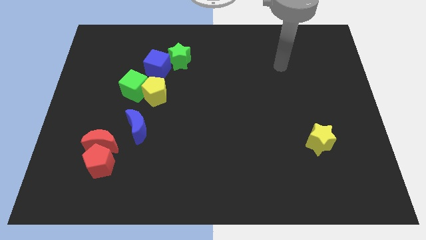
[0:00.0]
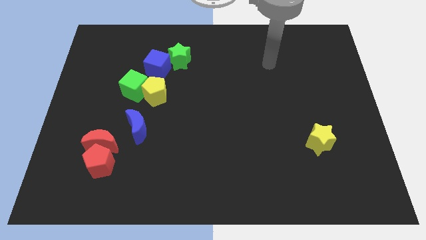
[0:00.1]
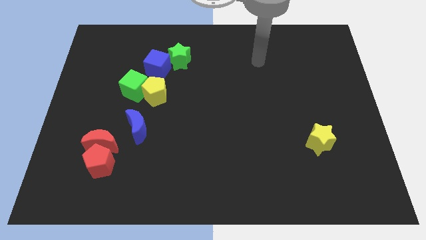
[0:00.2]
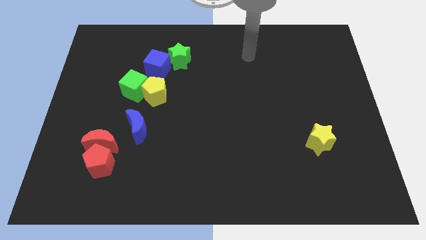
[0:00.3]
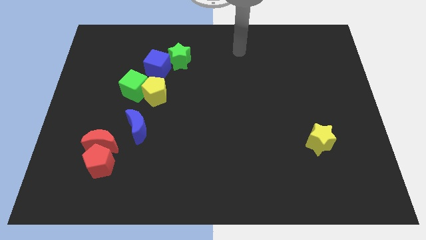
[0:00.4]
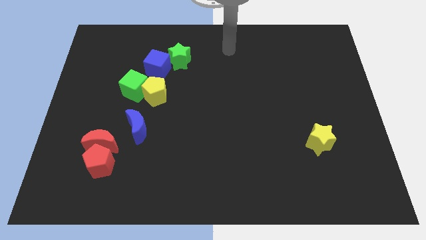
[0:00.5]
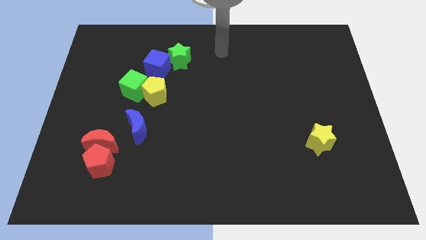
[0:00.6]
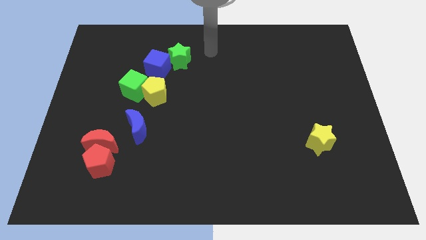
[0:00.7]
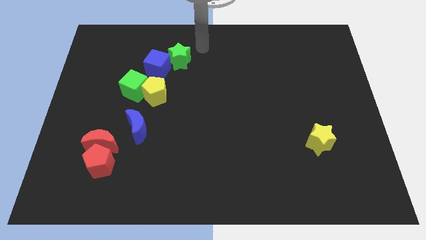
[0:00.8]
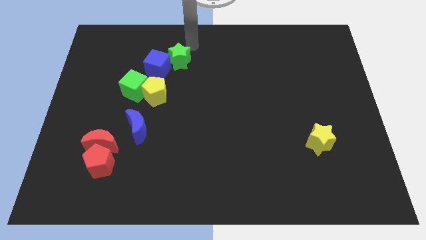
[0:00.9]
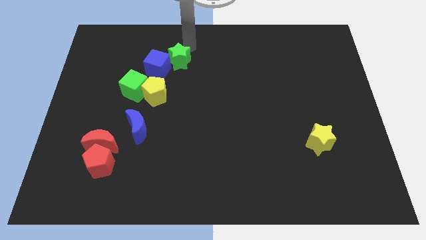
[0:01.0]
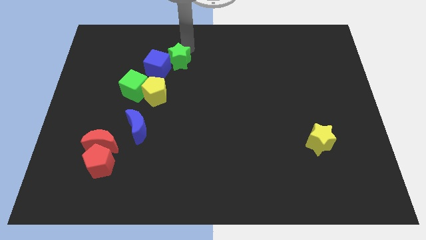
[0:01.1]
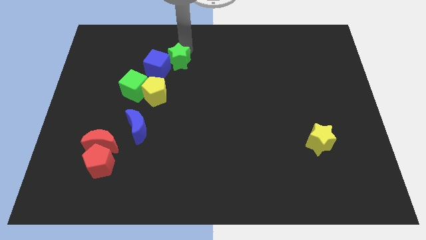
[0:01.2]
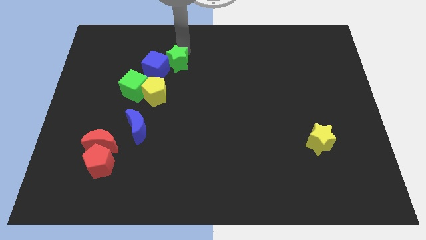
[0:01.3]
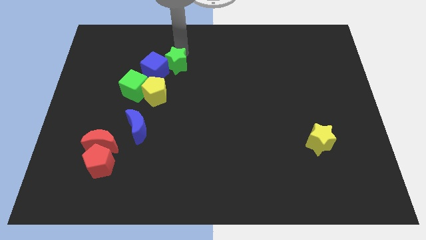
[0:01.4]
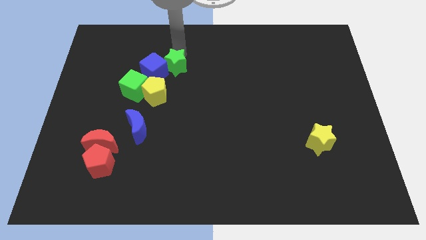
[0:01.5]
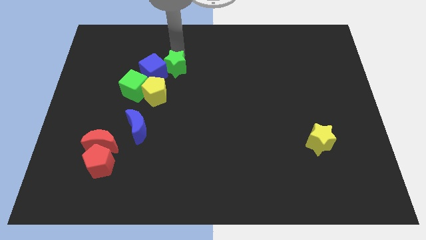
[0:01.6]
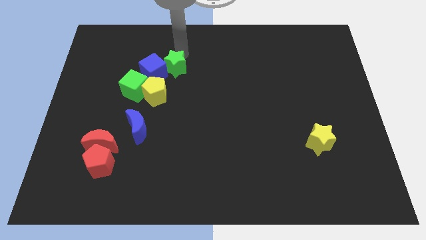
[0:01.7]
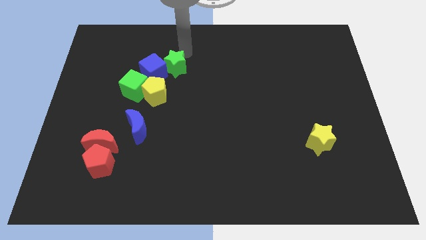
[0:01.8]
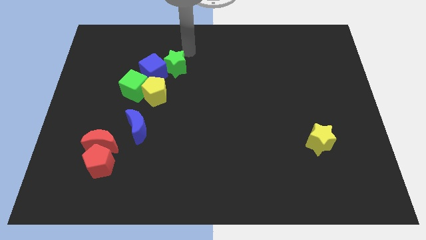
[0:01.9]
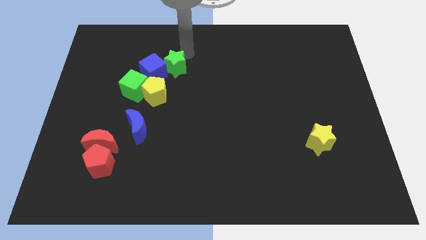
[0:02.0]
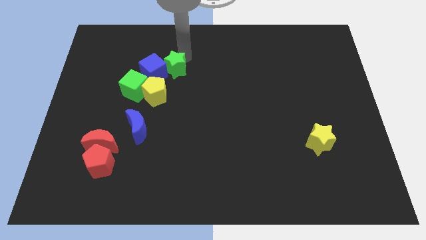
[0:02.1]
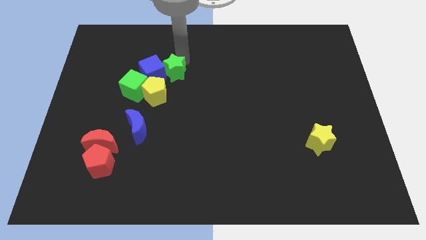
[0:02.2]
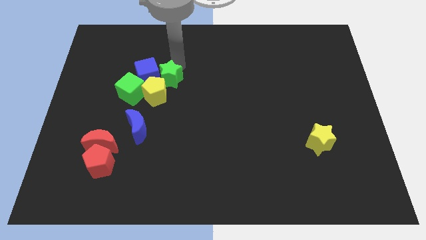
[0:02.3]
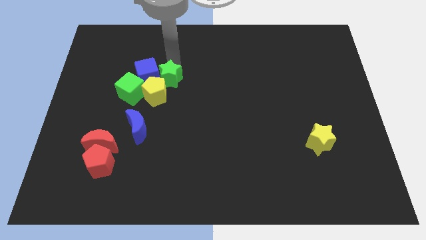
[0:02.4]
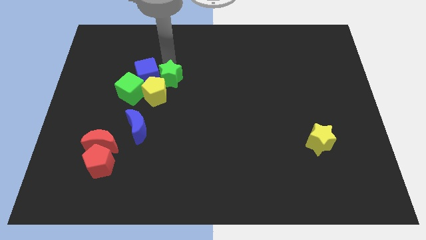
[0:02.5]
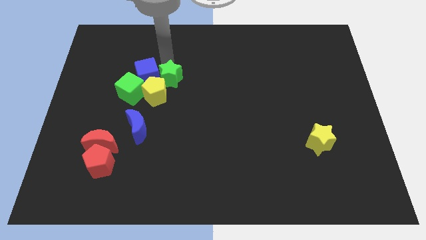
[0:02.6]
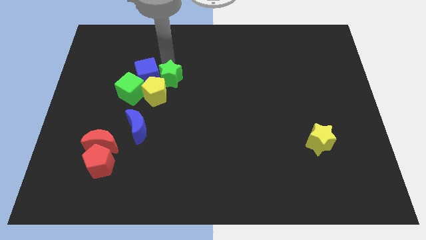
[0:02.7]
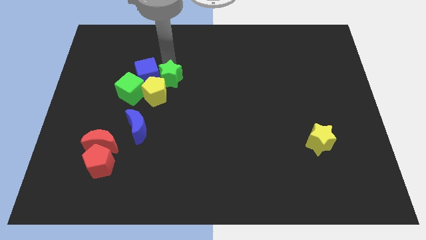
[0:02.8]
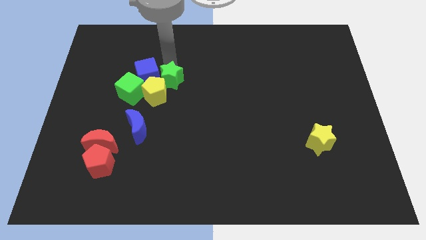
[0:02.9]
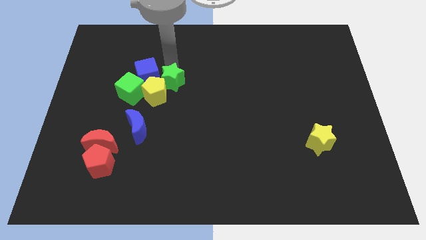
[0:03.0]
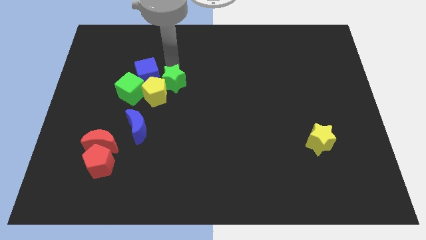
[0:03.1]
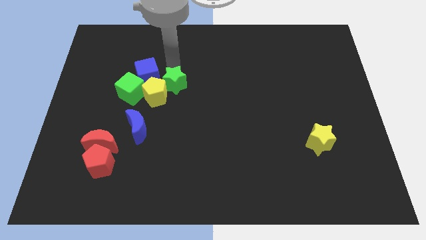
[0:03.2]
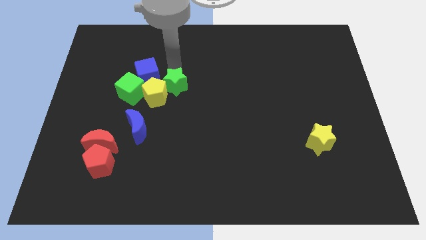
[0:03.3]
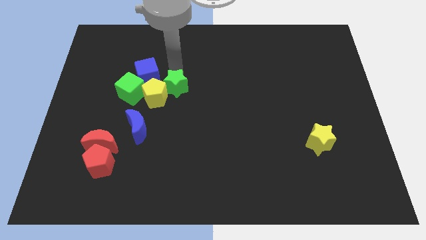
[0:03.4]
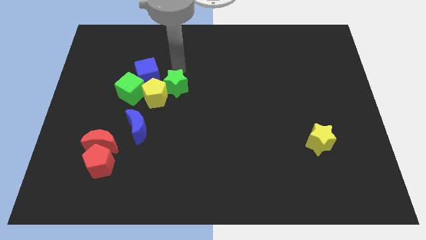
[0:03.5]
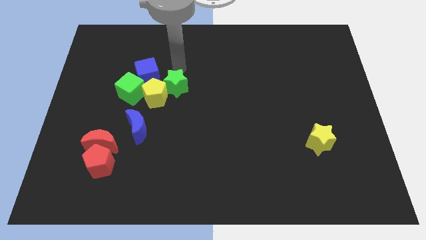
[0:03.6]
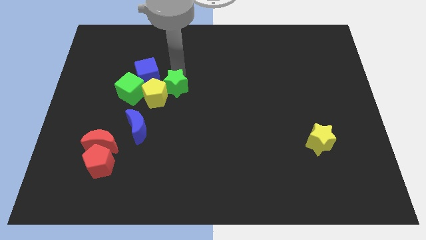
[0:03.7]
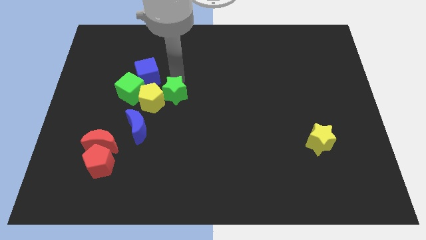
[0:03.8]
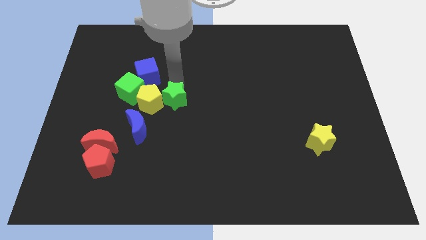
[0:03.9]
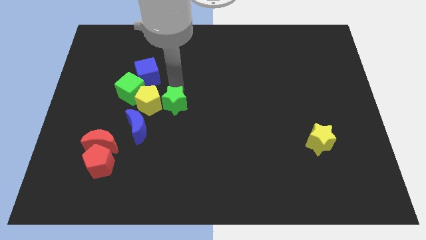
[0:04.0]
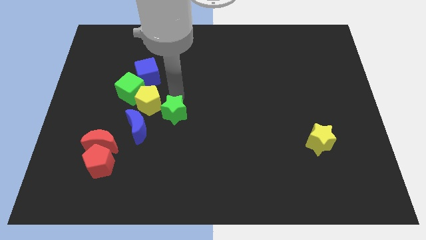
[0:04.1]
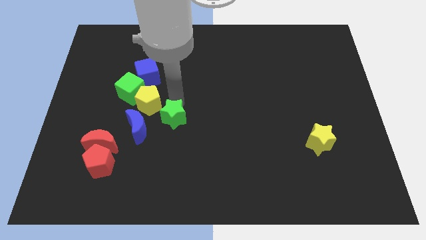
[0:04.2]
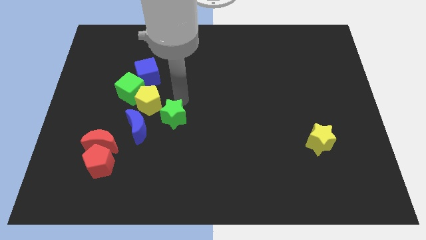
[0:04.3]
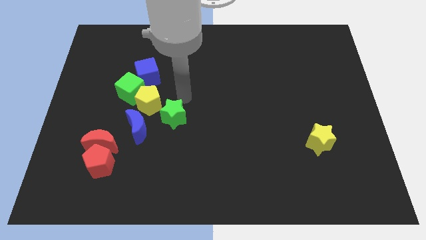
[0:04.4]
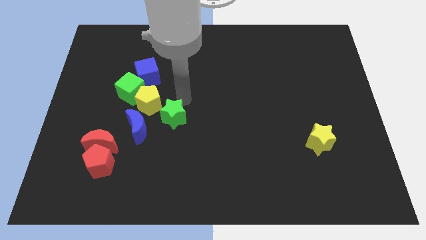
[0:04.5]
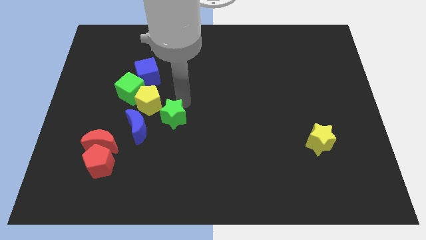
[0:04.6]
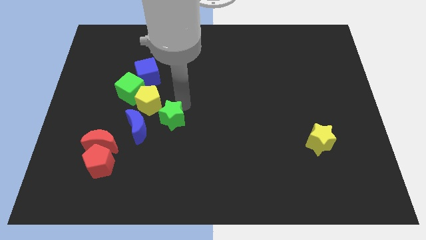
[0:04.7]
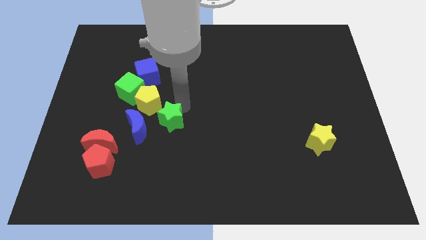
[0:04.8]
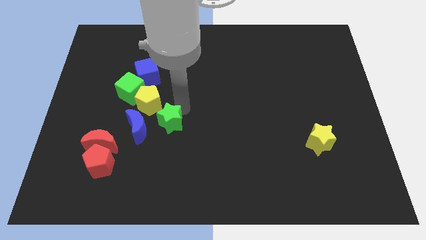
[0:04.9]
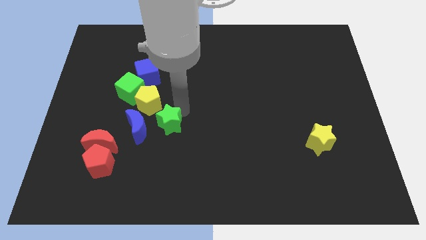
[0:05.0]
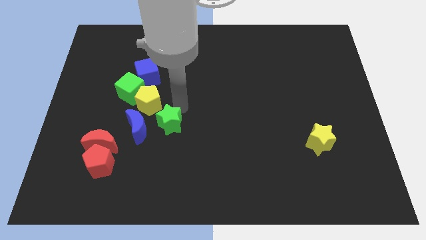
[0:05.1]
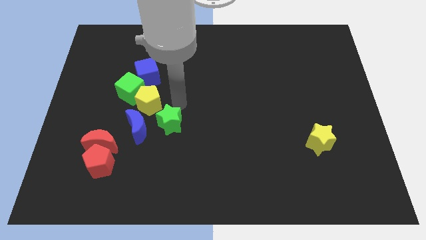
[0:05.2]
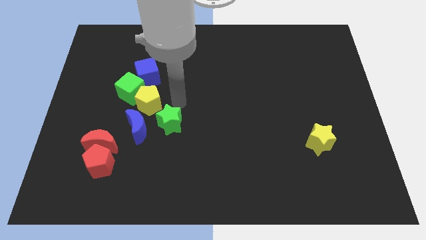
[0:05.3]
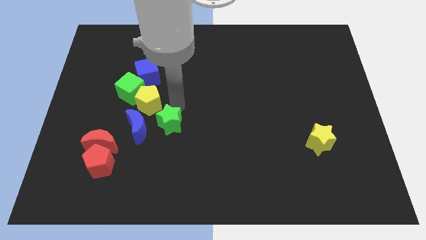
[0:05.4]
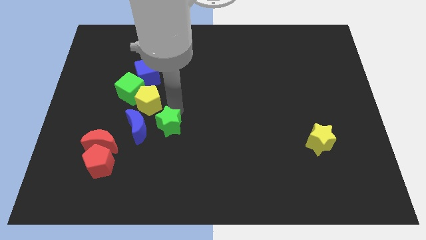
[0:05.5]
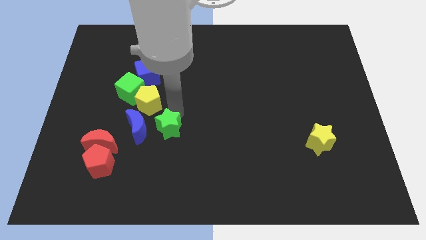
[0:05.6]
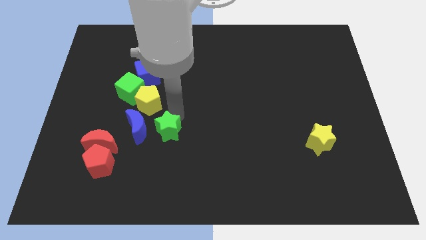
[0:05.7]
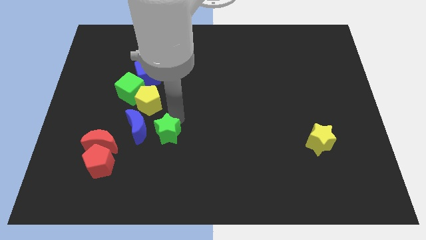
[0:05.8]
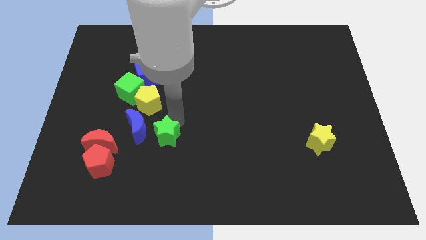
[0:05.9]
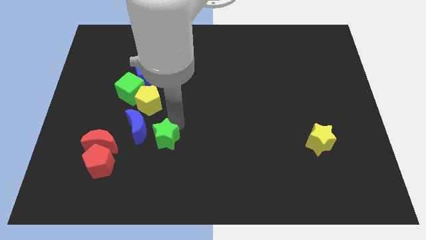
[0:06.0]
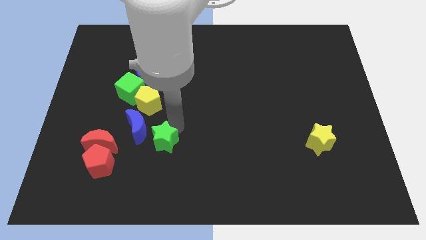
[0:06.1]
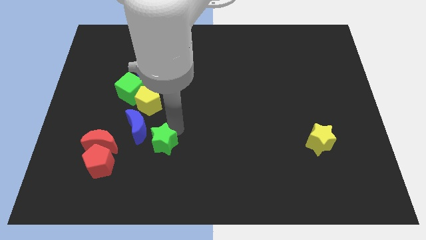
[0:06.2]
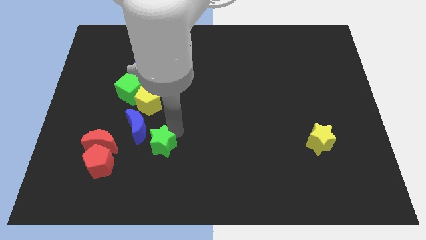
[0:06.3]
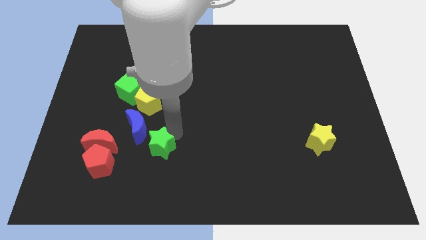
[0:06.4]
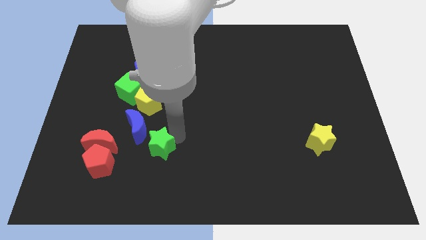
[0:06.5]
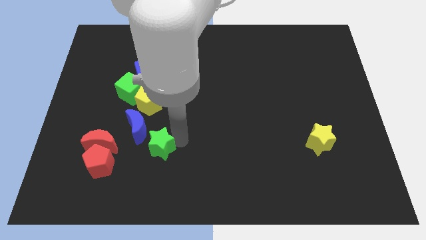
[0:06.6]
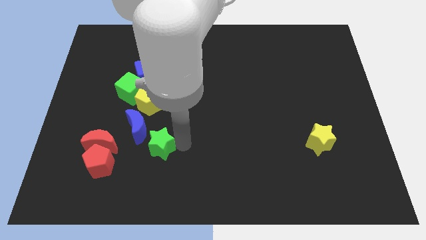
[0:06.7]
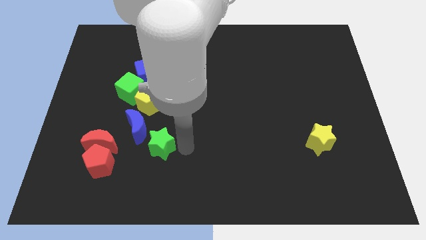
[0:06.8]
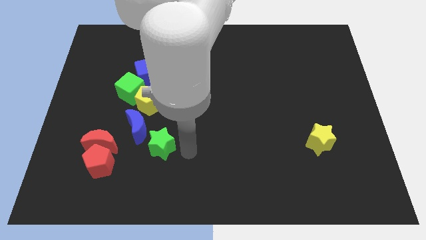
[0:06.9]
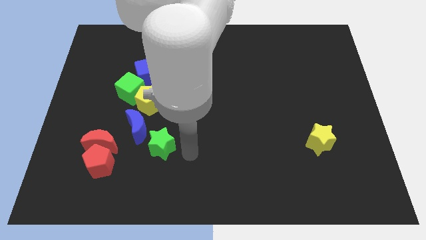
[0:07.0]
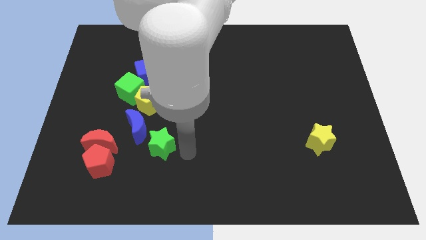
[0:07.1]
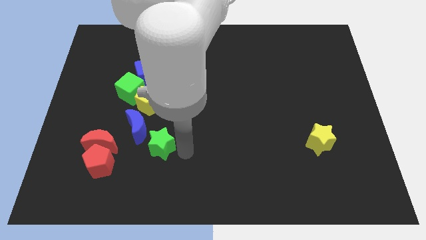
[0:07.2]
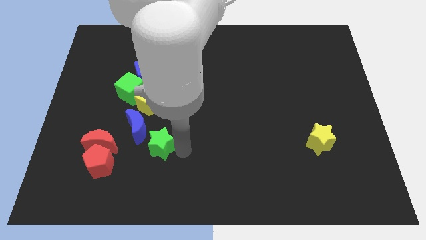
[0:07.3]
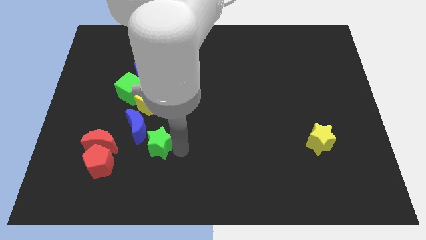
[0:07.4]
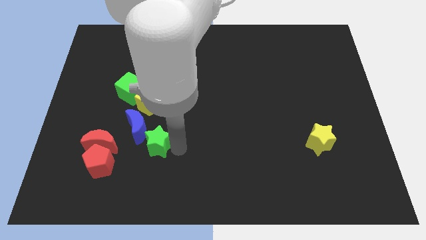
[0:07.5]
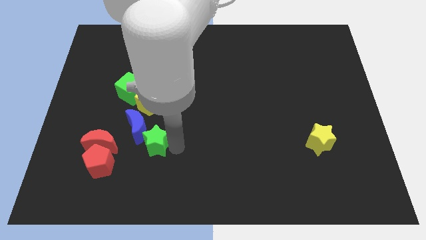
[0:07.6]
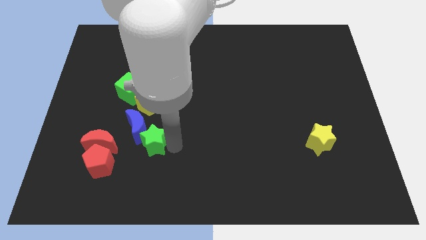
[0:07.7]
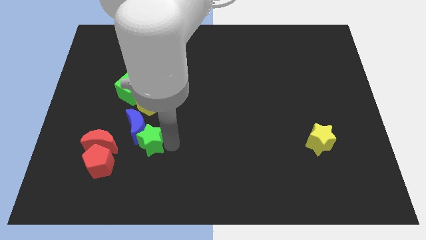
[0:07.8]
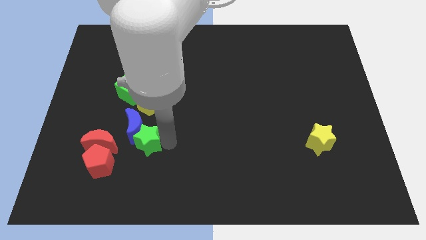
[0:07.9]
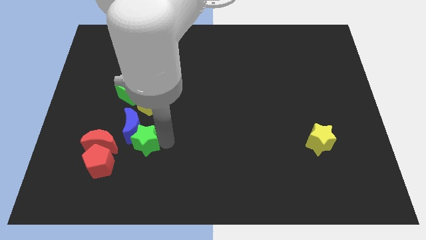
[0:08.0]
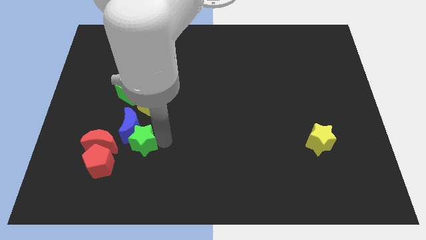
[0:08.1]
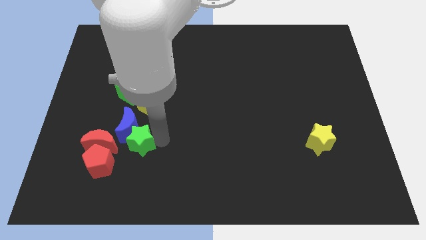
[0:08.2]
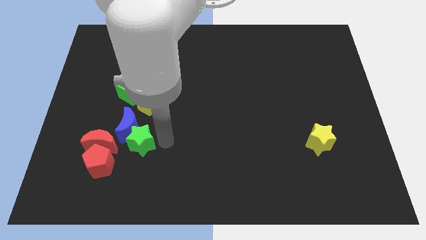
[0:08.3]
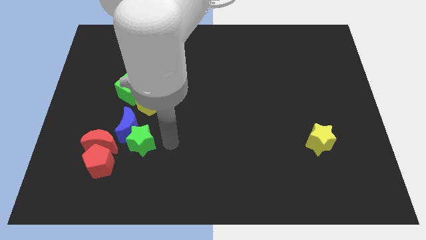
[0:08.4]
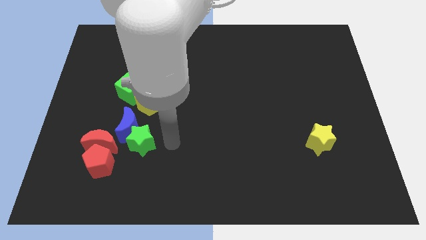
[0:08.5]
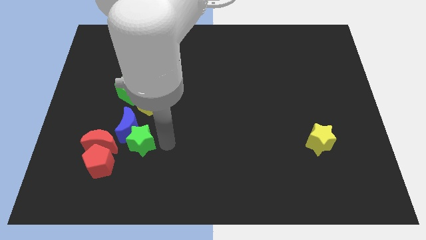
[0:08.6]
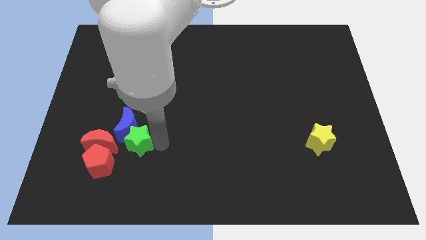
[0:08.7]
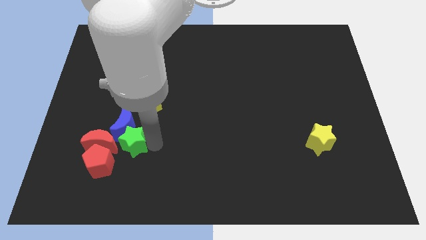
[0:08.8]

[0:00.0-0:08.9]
push the green star below the green cube
